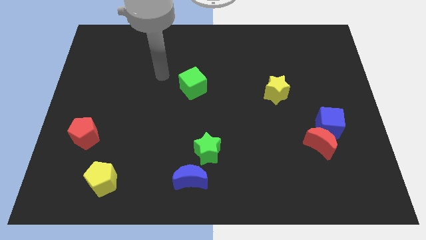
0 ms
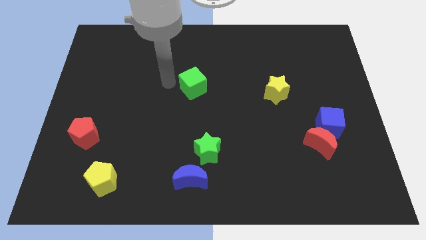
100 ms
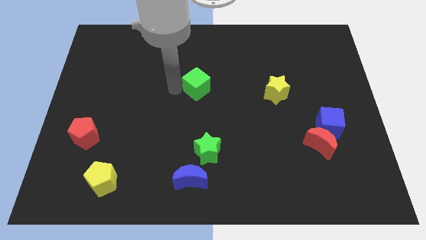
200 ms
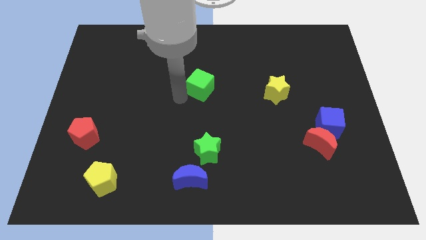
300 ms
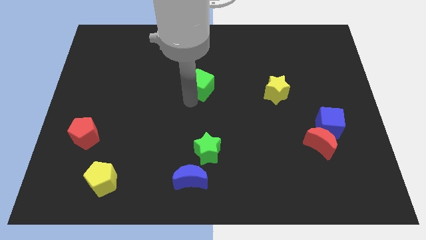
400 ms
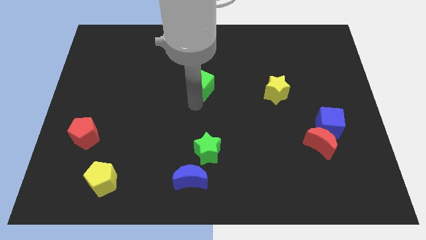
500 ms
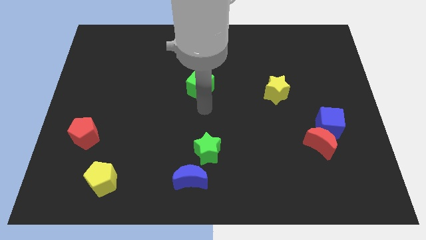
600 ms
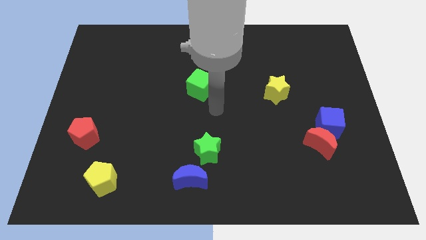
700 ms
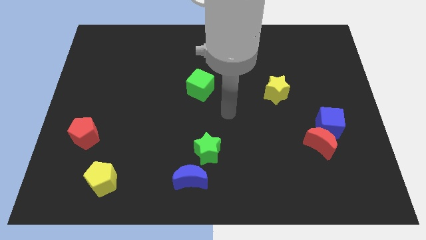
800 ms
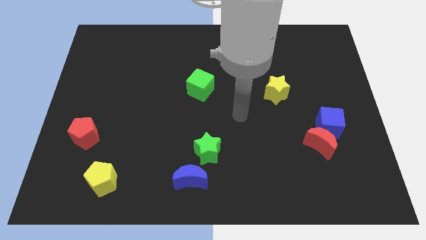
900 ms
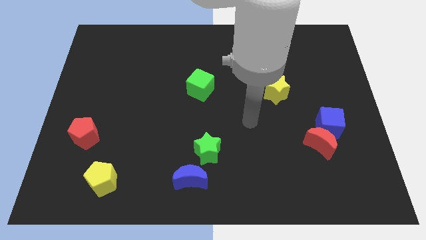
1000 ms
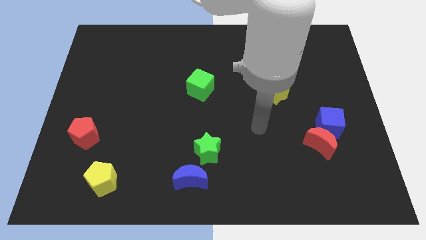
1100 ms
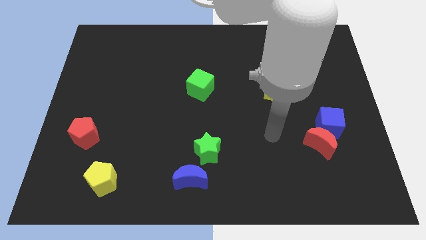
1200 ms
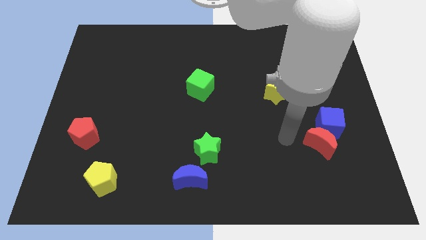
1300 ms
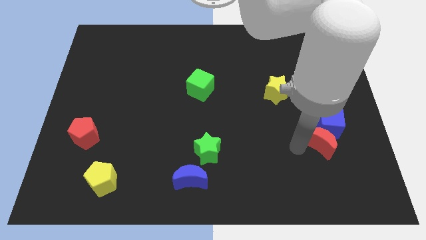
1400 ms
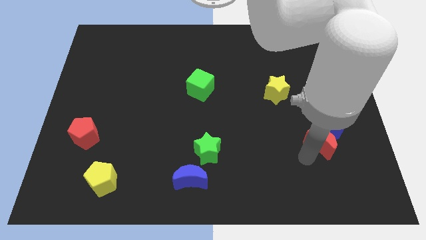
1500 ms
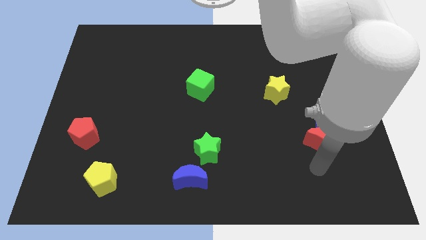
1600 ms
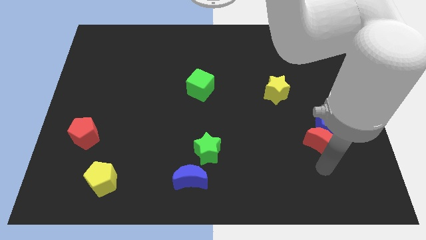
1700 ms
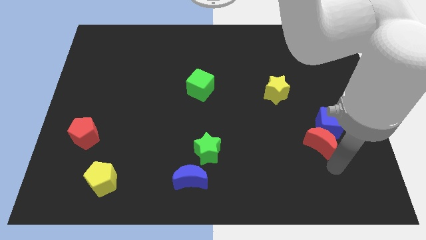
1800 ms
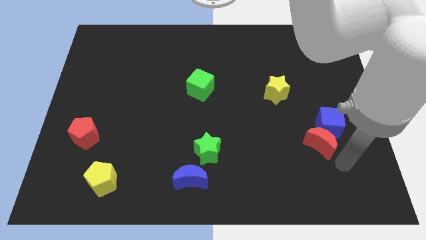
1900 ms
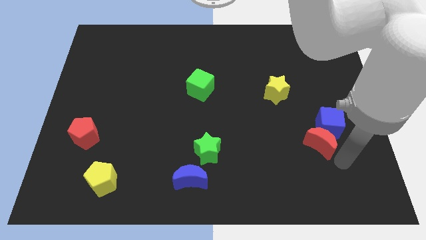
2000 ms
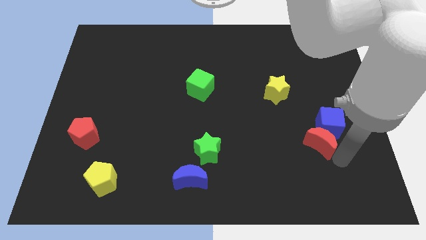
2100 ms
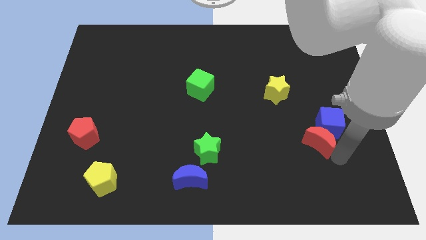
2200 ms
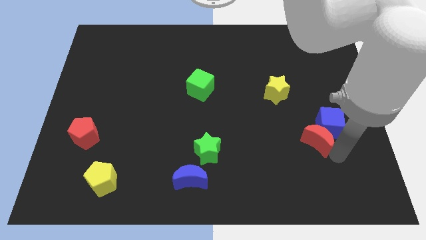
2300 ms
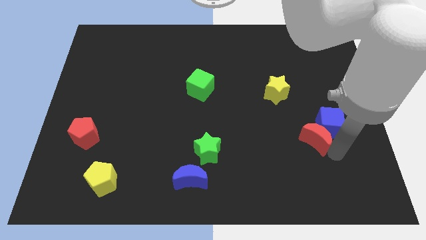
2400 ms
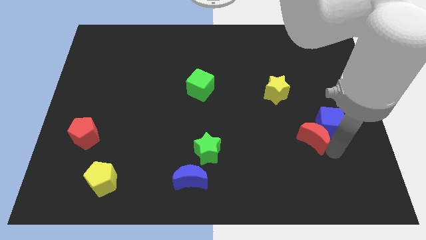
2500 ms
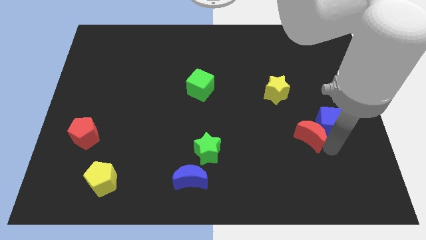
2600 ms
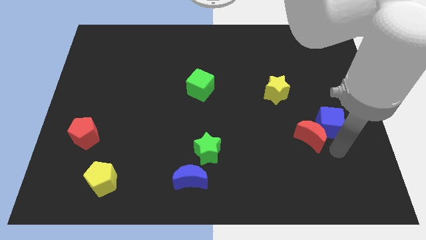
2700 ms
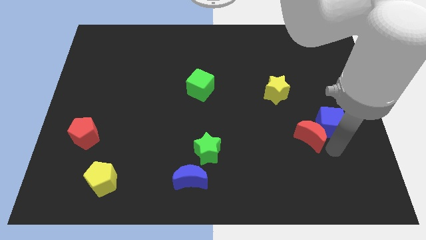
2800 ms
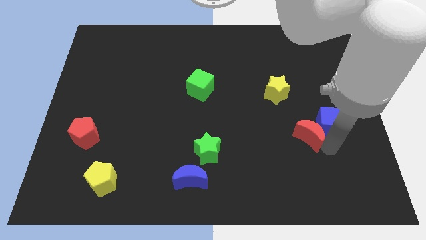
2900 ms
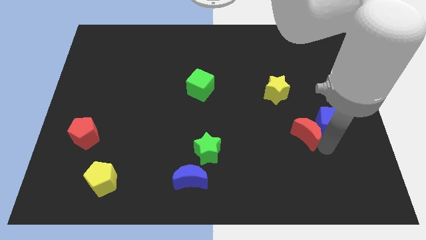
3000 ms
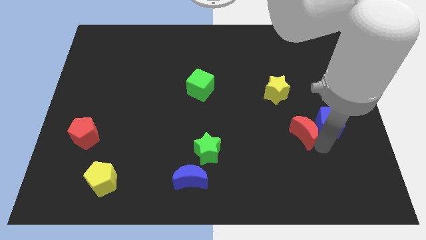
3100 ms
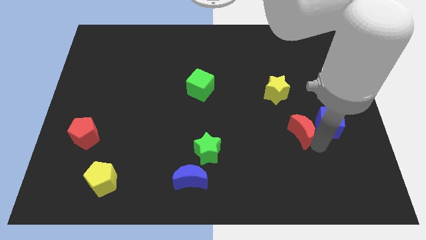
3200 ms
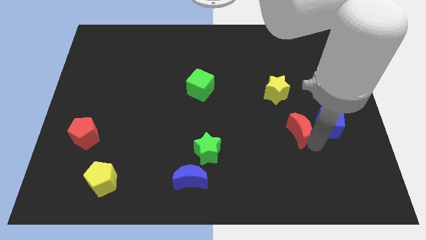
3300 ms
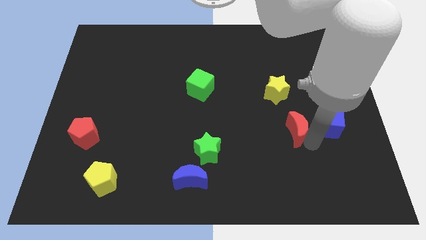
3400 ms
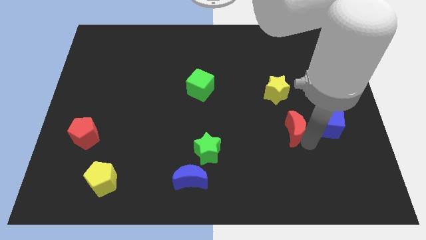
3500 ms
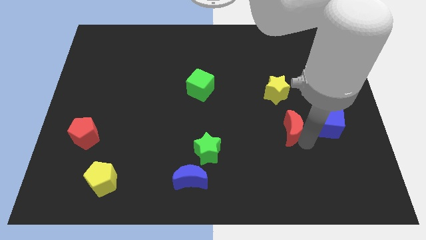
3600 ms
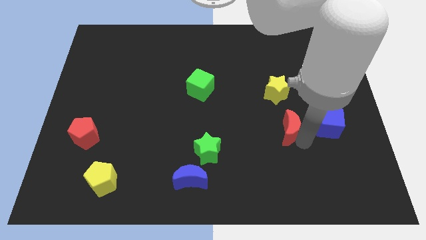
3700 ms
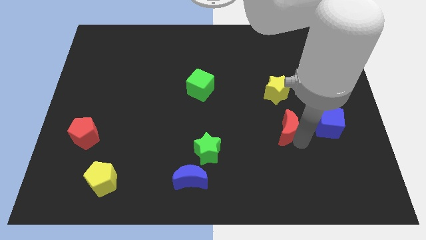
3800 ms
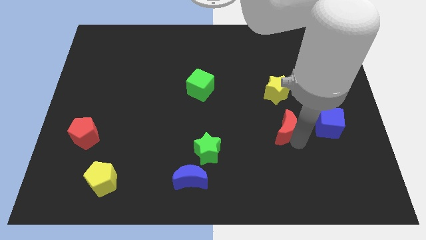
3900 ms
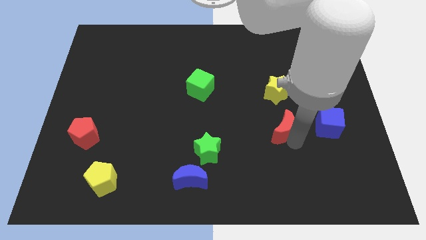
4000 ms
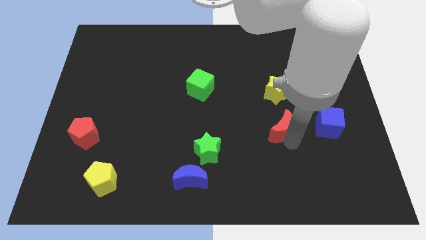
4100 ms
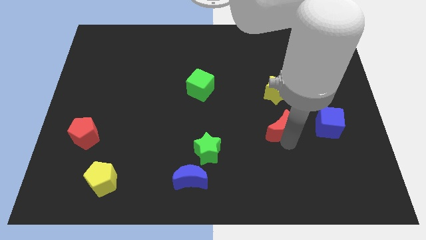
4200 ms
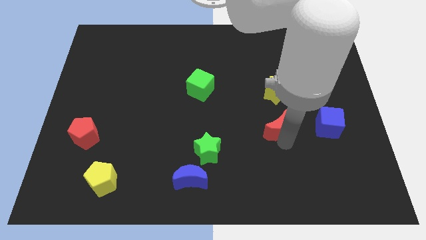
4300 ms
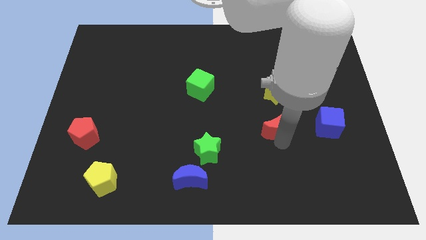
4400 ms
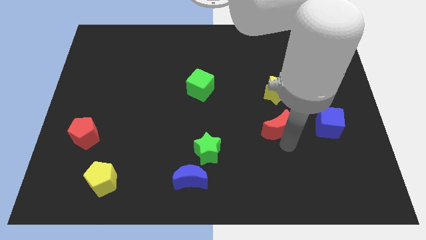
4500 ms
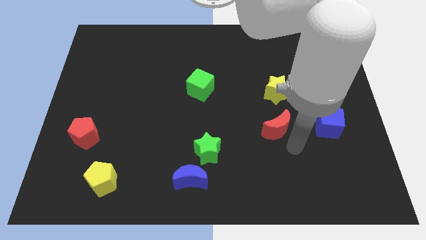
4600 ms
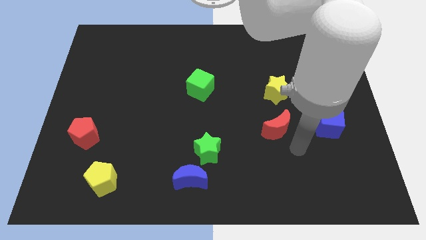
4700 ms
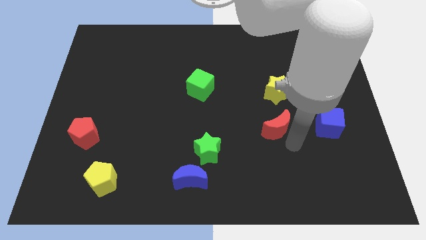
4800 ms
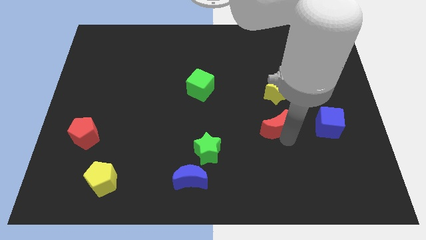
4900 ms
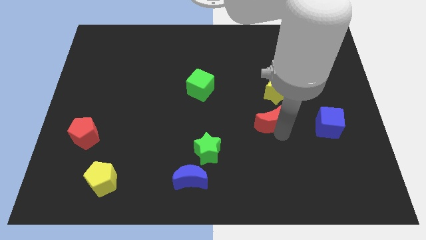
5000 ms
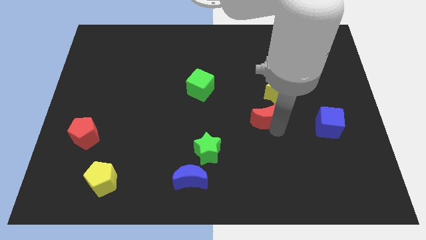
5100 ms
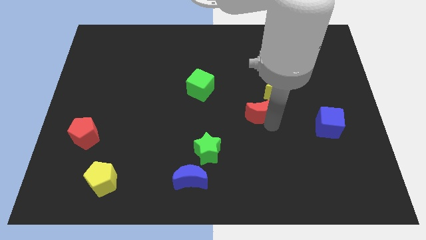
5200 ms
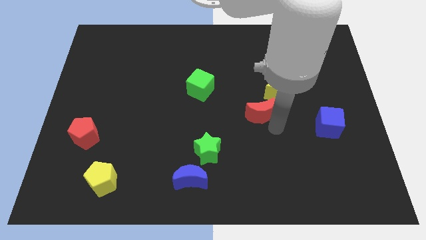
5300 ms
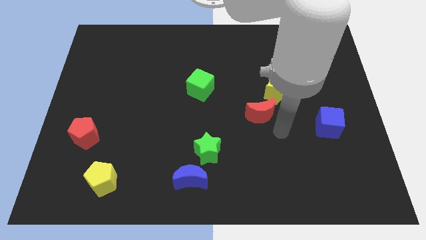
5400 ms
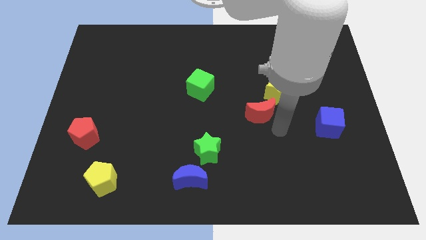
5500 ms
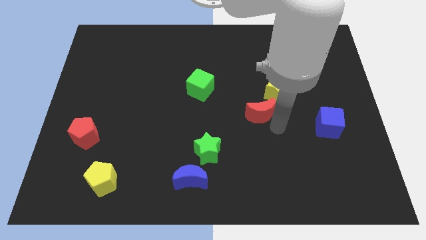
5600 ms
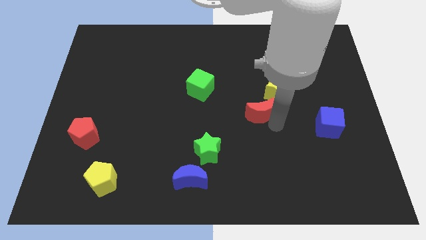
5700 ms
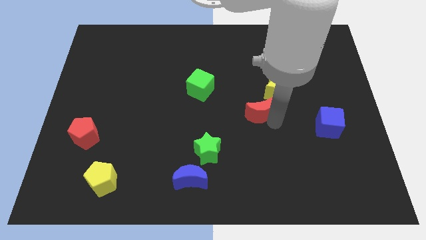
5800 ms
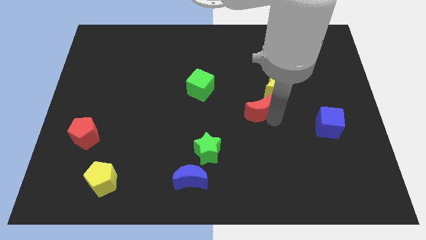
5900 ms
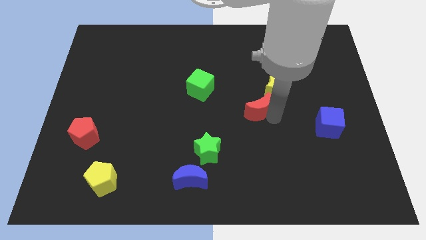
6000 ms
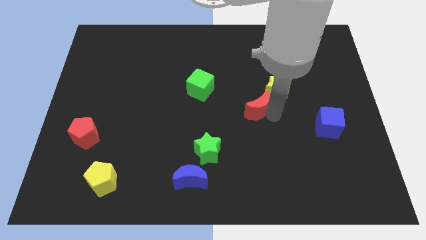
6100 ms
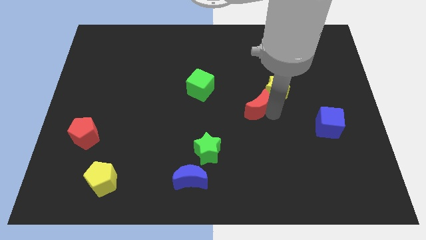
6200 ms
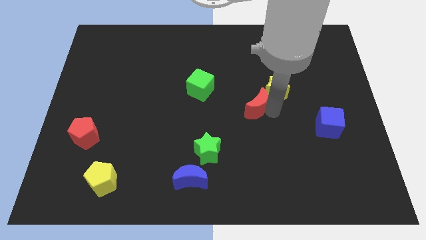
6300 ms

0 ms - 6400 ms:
slide the red moon to the left of the yellow star
